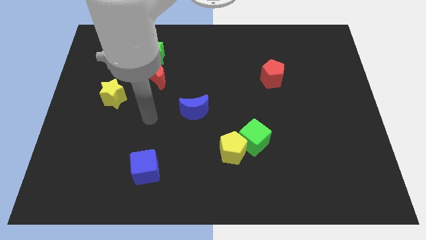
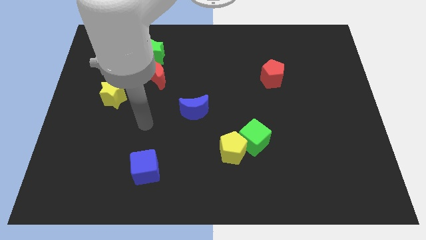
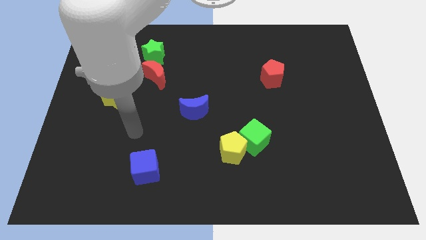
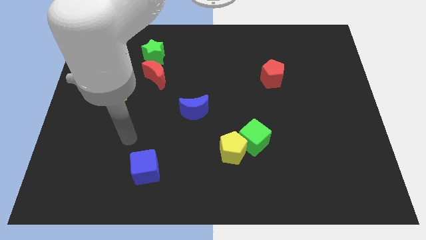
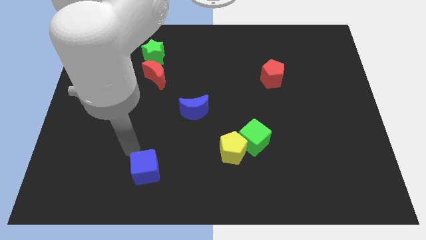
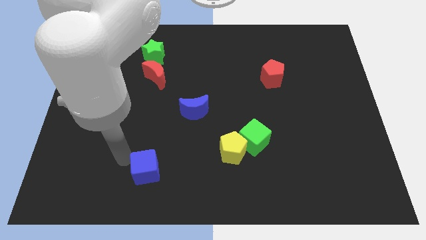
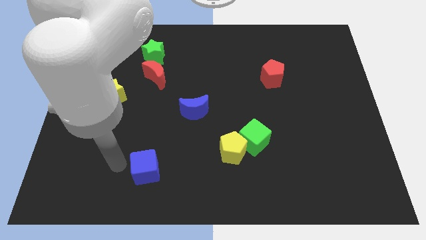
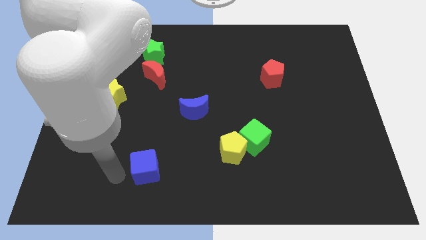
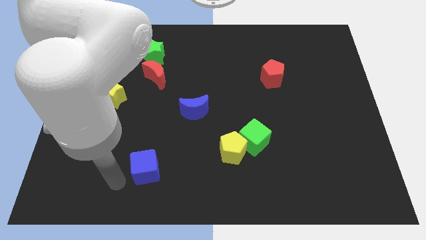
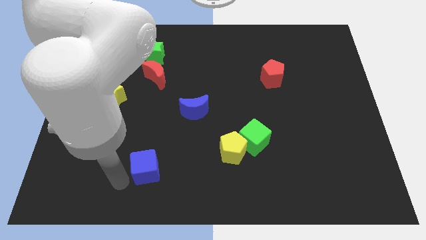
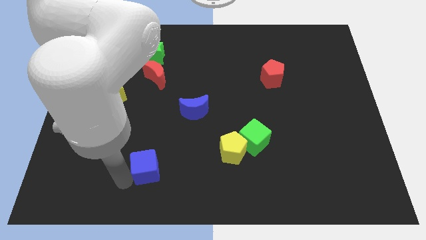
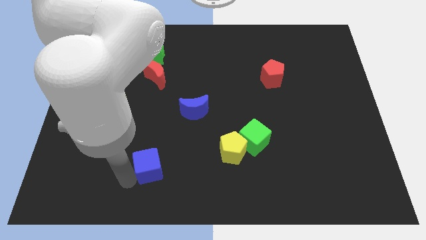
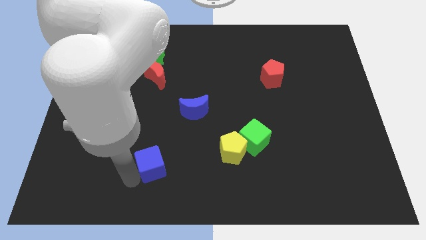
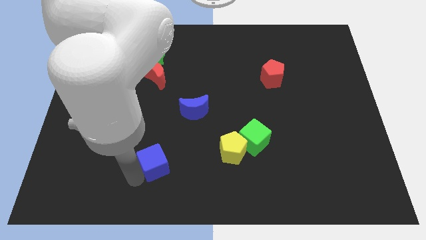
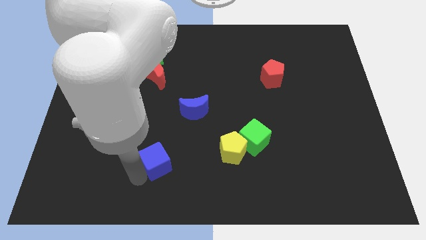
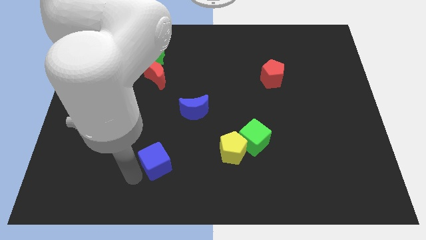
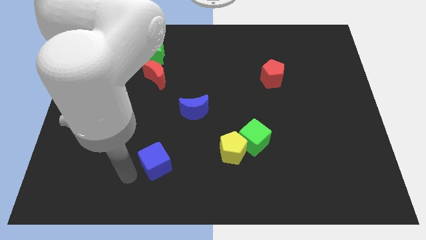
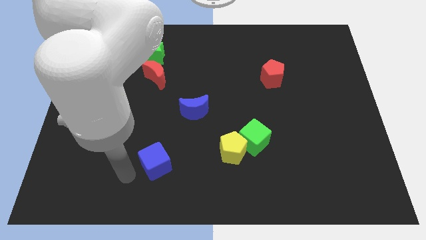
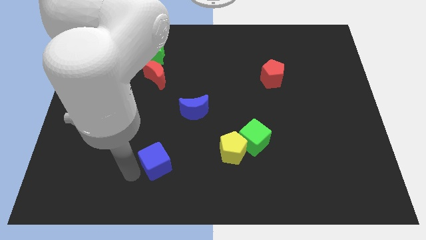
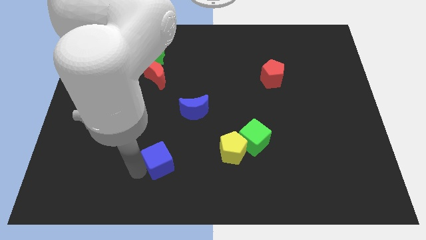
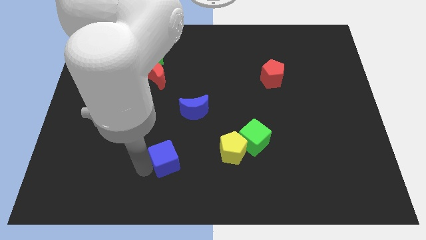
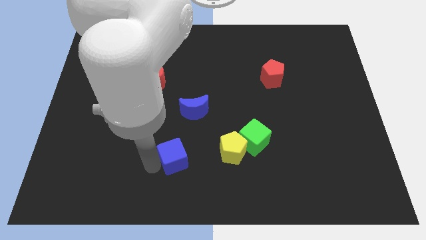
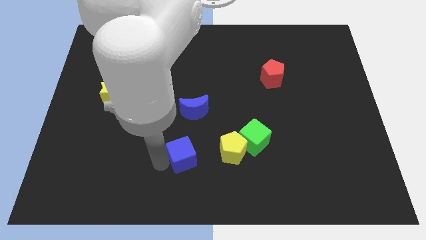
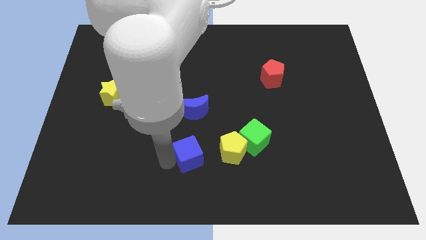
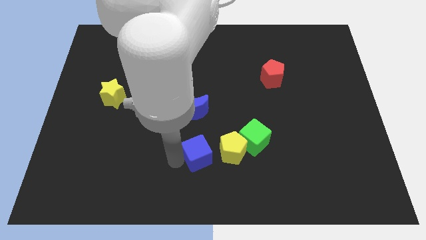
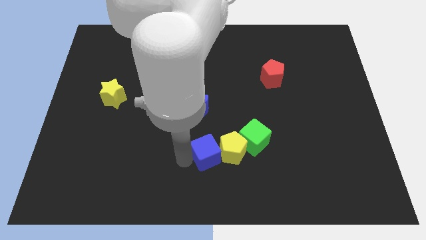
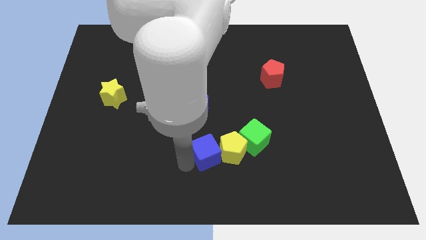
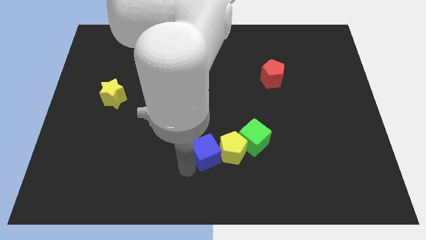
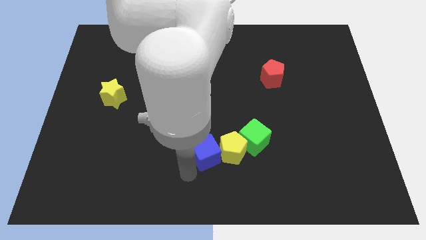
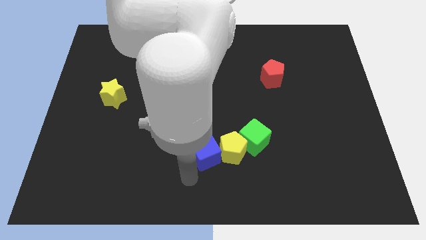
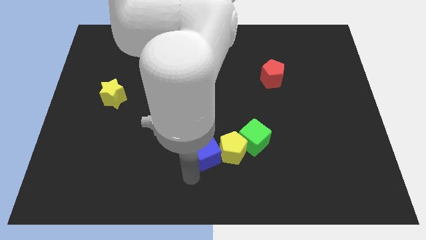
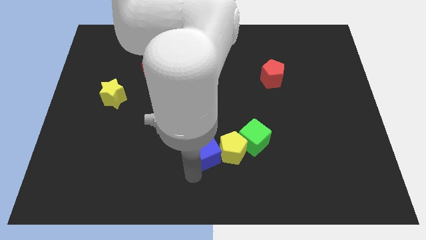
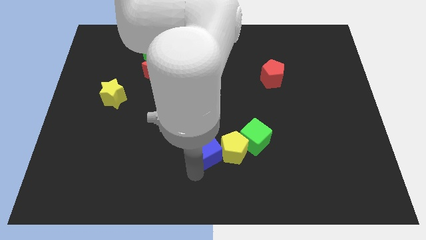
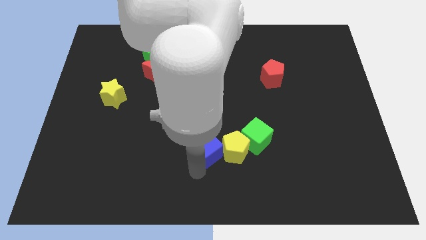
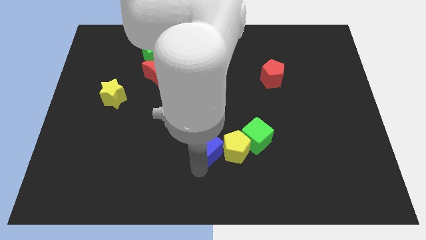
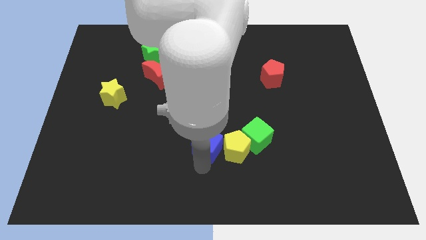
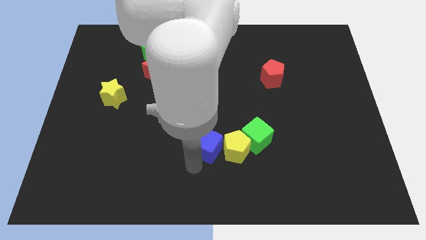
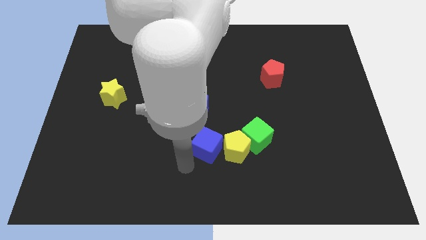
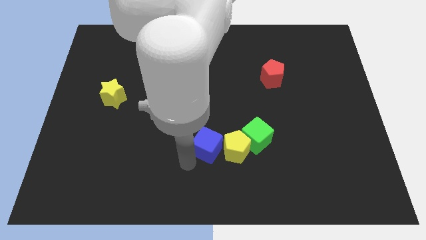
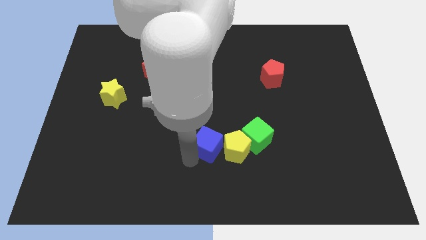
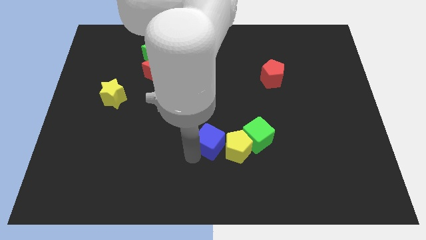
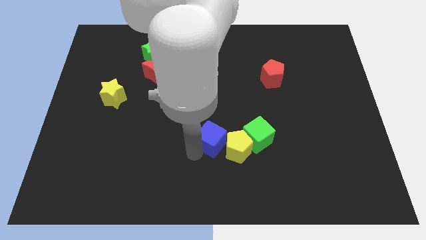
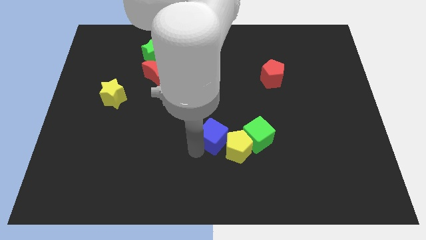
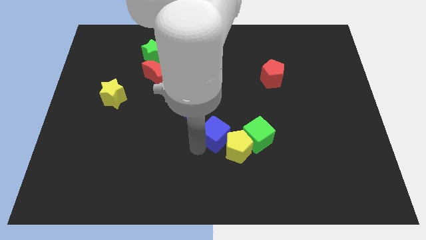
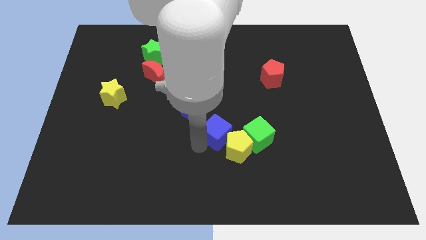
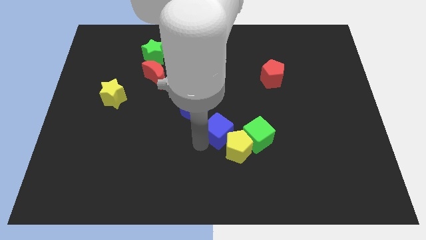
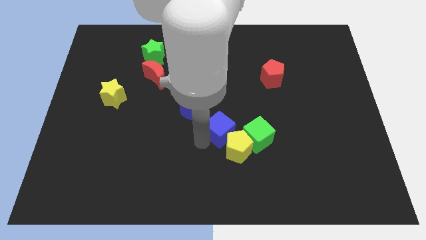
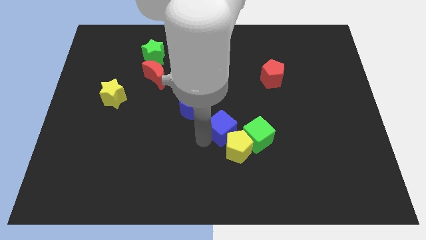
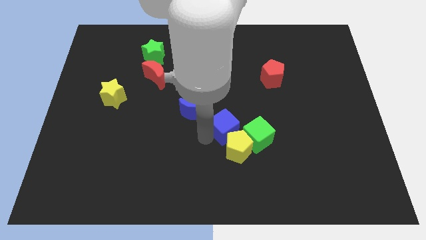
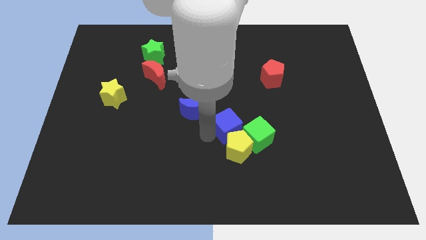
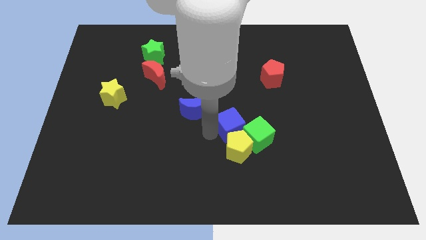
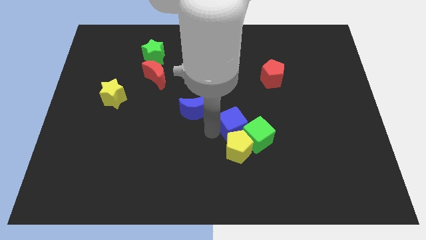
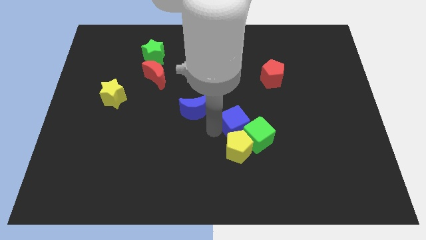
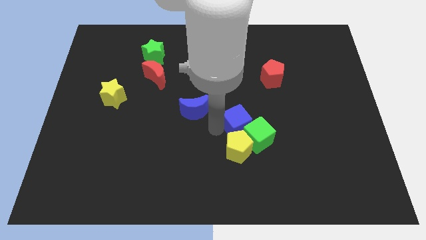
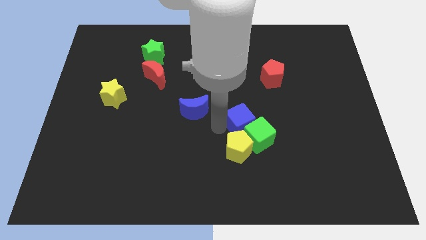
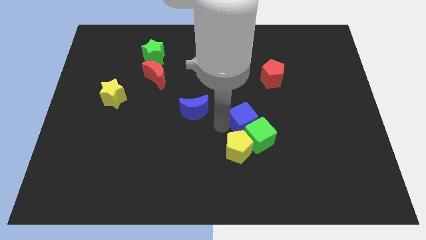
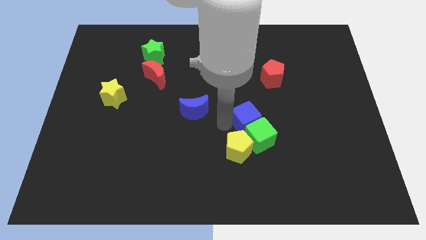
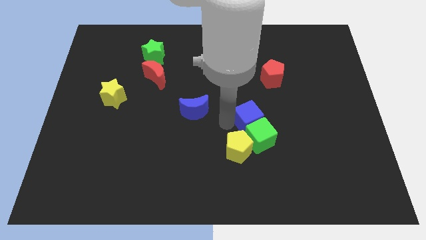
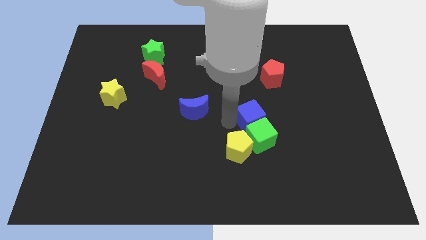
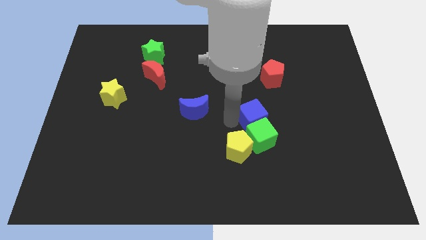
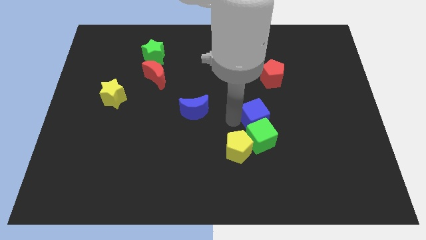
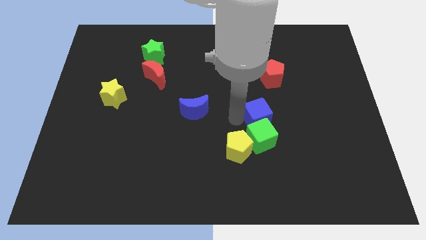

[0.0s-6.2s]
put the blue cube to the bottom of the red pentagon

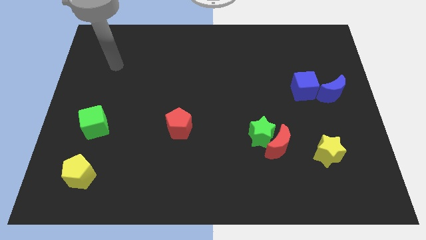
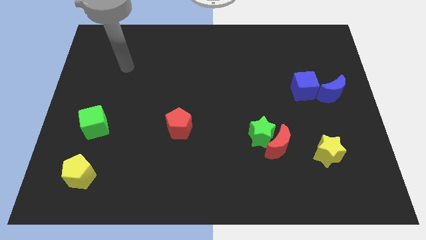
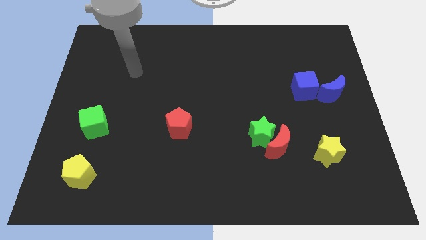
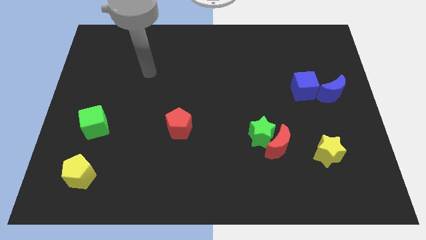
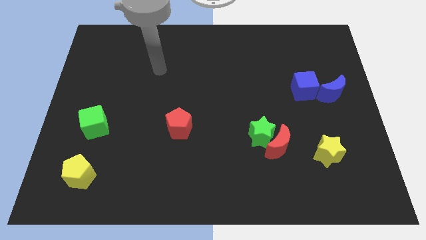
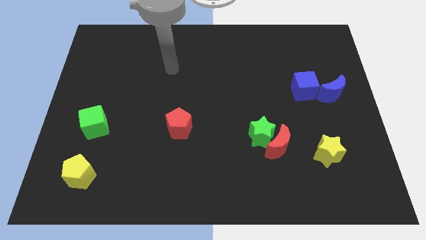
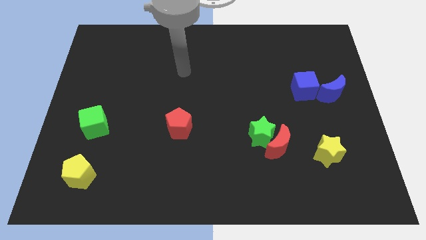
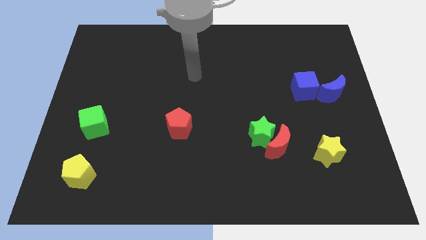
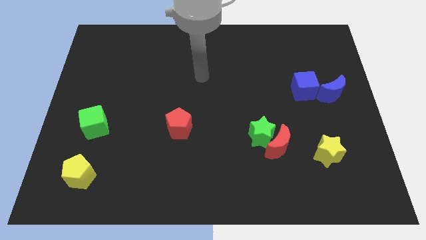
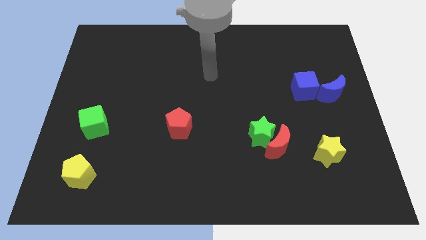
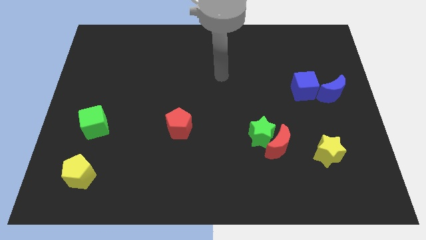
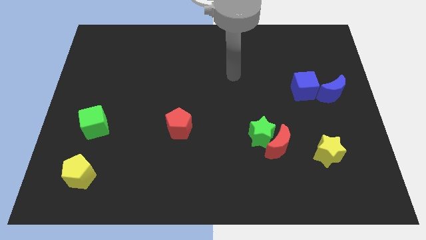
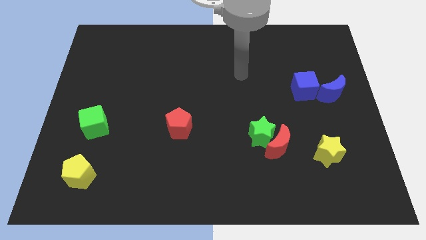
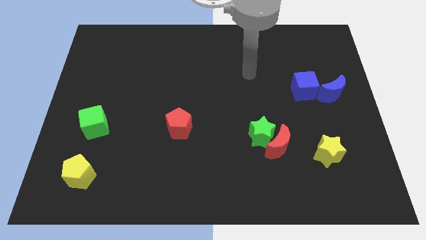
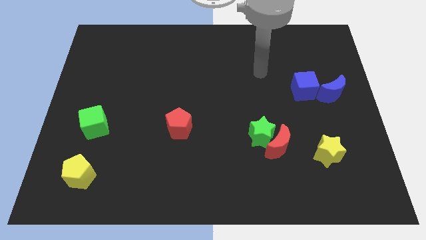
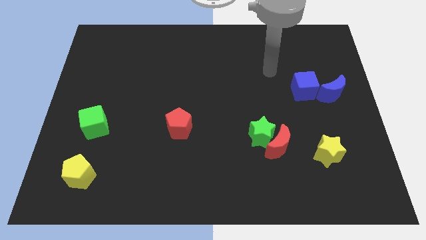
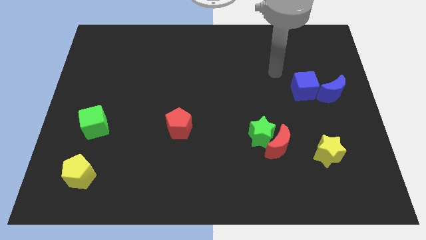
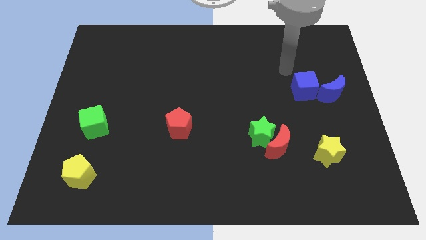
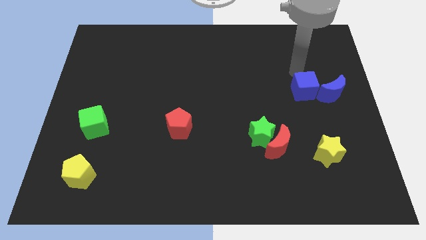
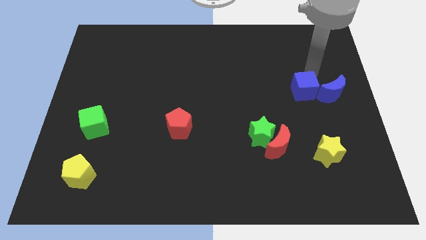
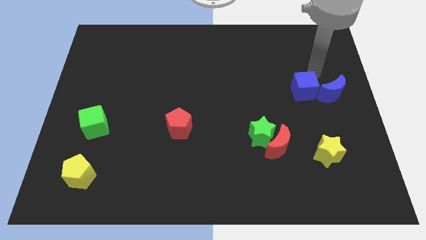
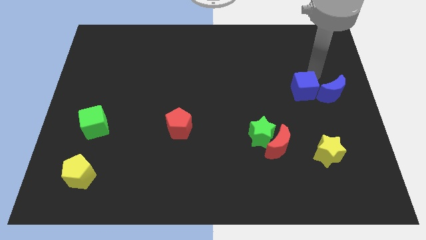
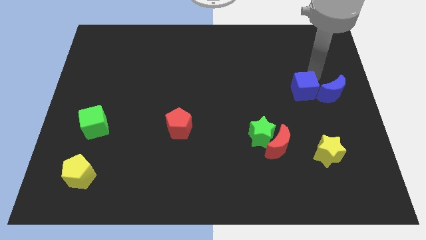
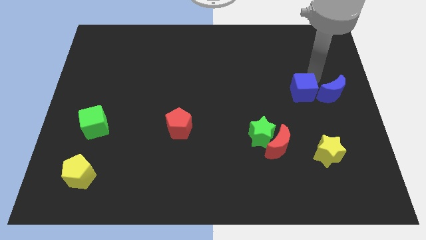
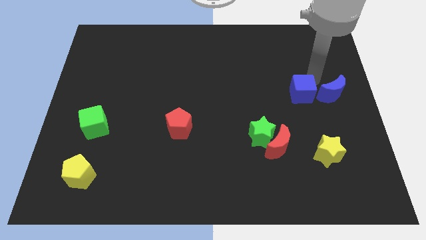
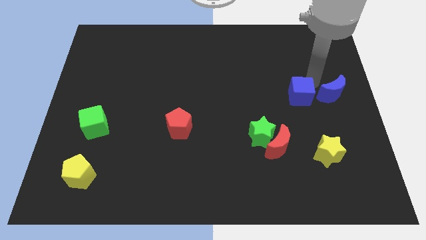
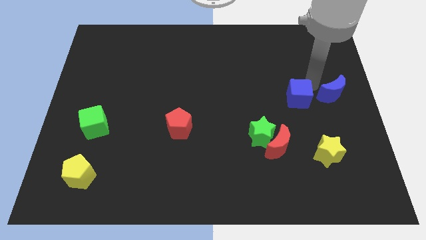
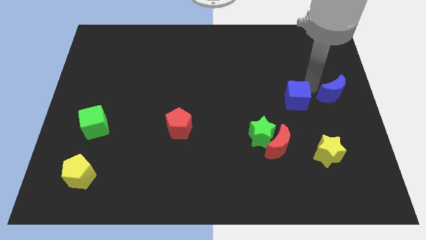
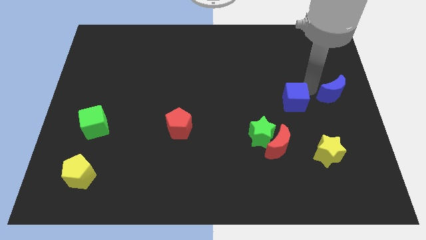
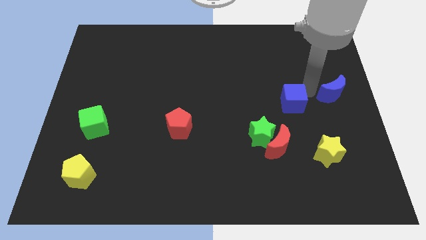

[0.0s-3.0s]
move the blue cube to the top right of the green star
